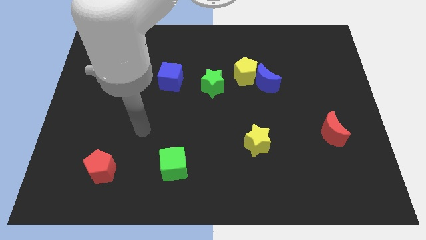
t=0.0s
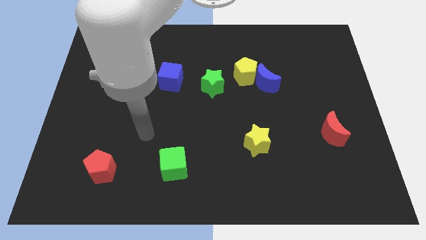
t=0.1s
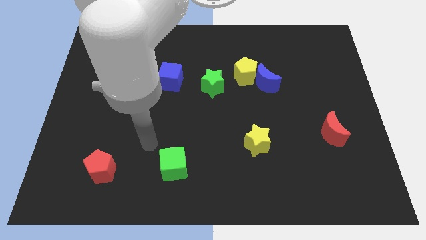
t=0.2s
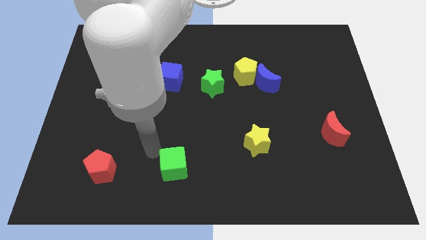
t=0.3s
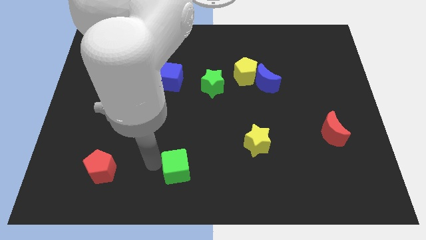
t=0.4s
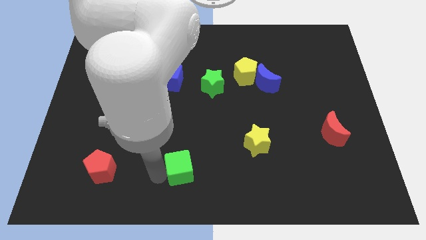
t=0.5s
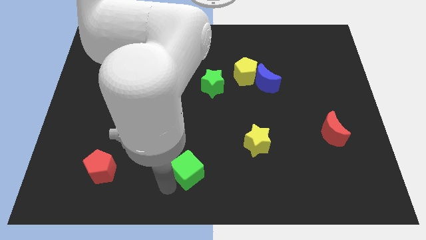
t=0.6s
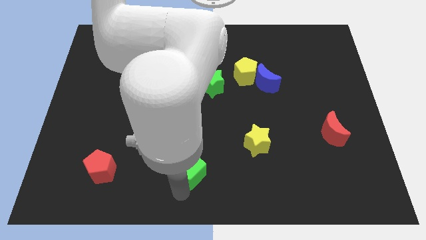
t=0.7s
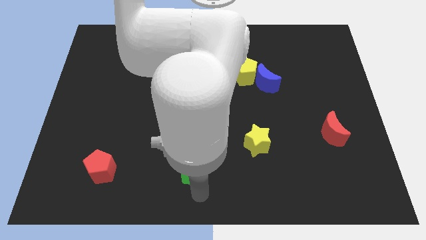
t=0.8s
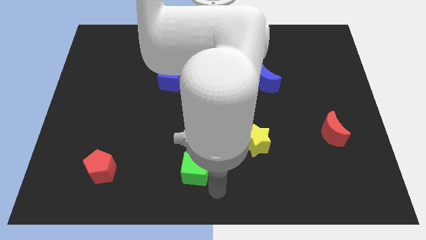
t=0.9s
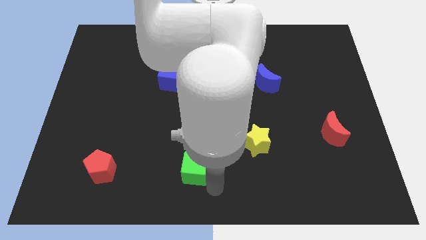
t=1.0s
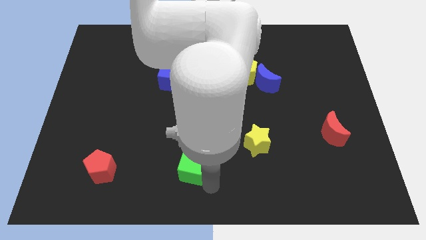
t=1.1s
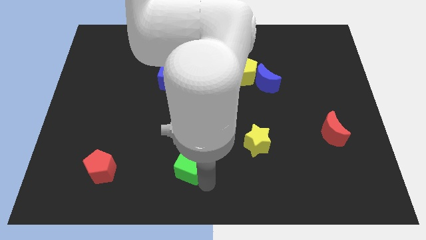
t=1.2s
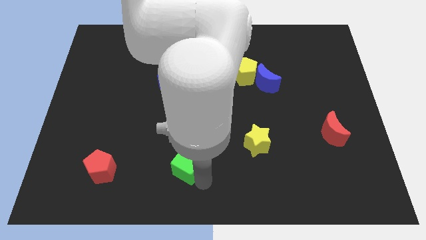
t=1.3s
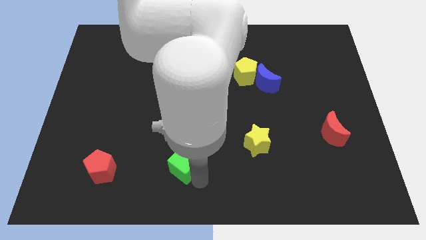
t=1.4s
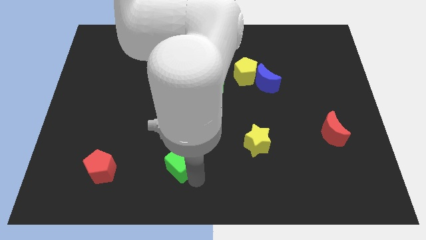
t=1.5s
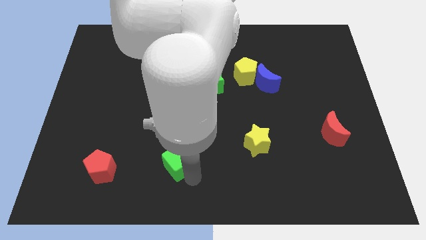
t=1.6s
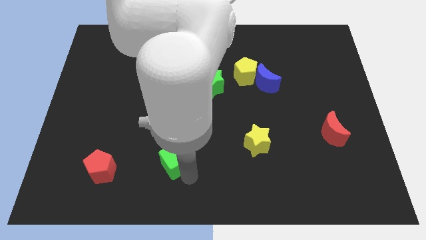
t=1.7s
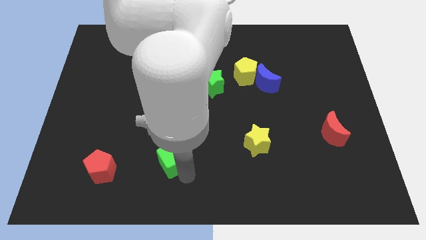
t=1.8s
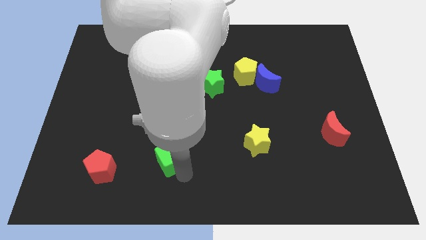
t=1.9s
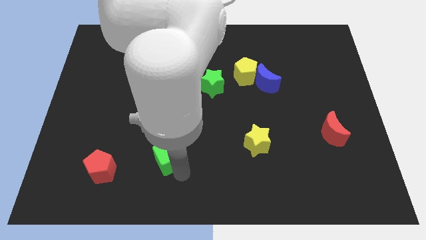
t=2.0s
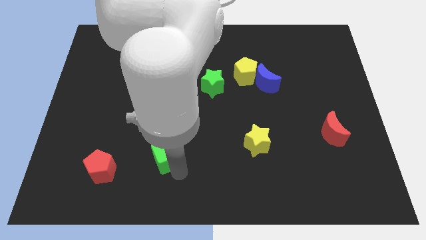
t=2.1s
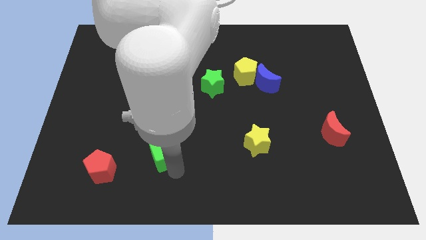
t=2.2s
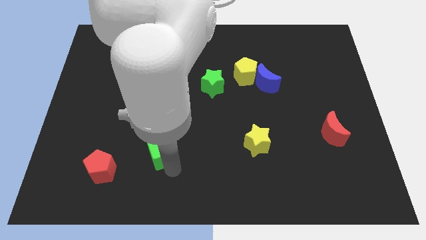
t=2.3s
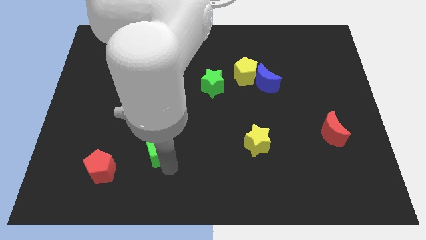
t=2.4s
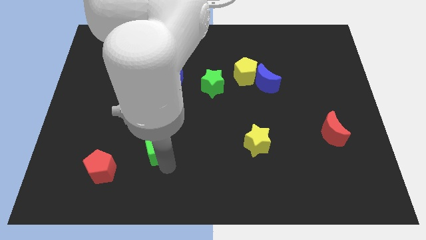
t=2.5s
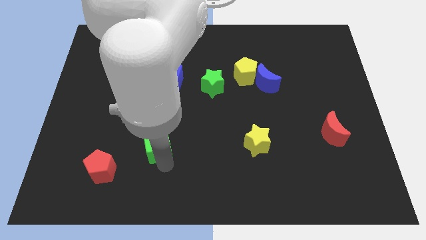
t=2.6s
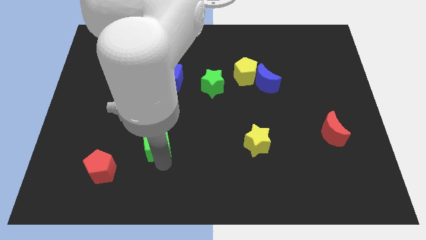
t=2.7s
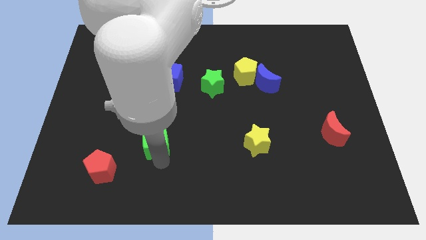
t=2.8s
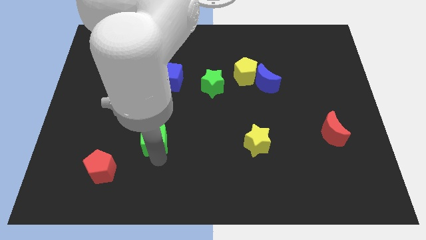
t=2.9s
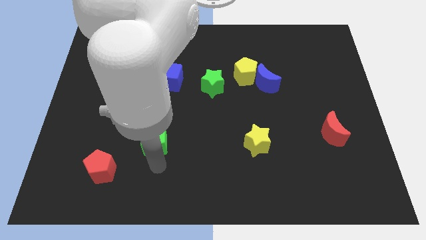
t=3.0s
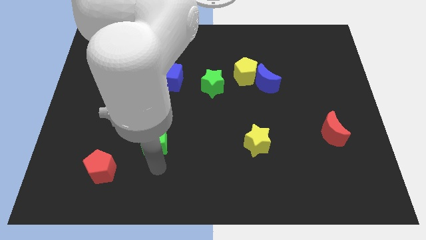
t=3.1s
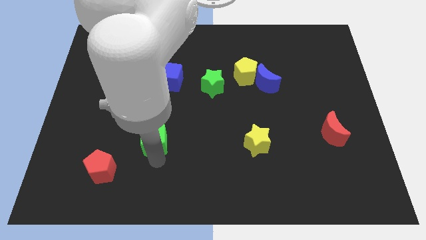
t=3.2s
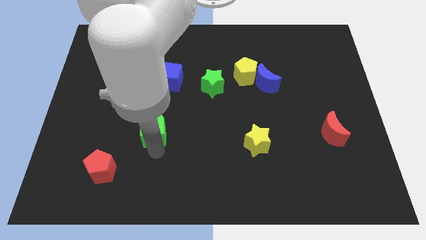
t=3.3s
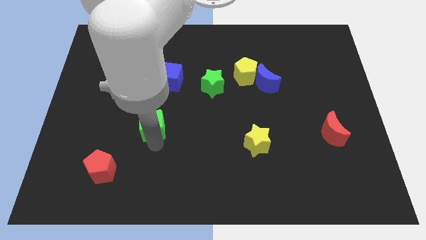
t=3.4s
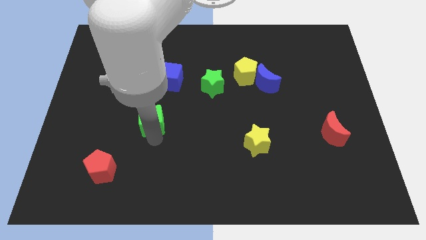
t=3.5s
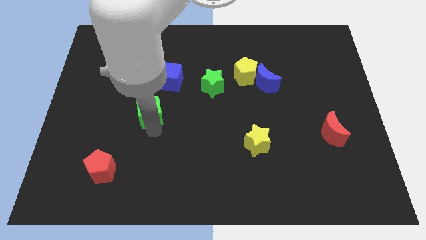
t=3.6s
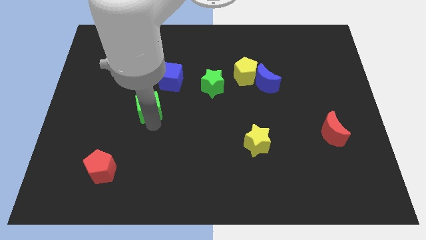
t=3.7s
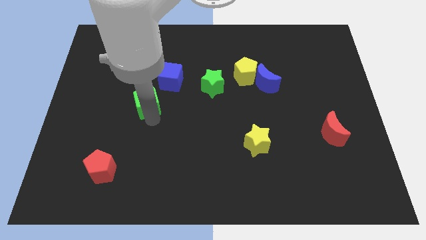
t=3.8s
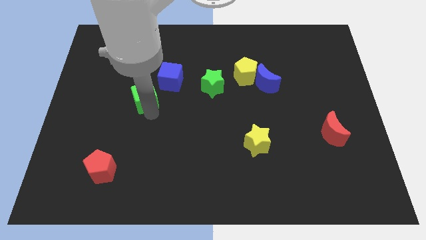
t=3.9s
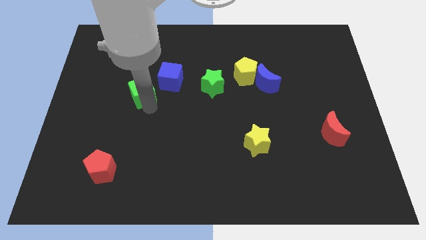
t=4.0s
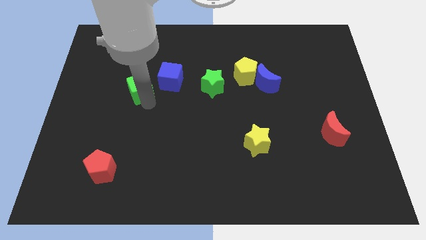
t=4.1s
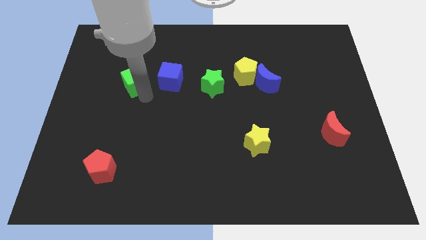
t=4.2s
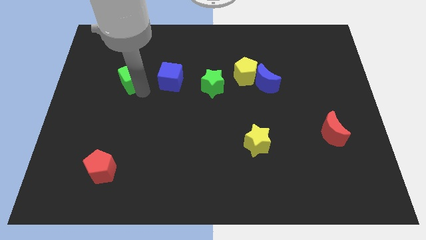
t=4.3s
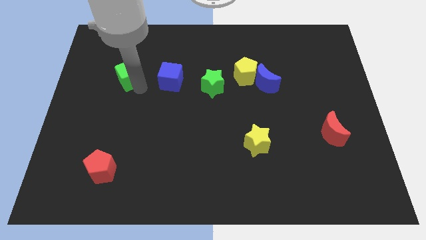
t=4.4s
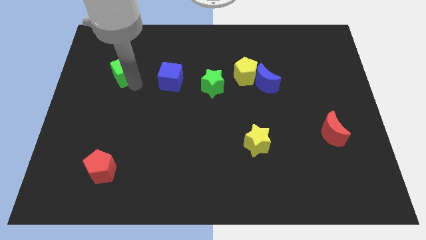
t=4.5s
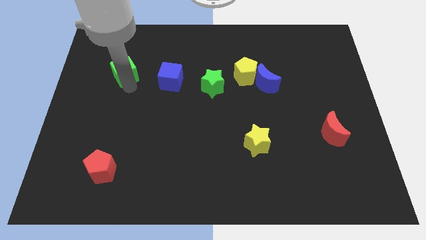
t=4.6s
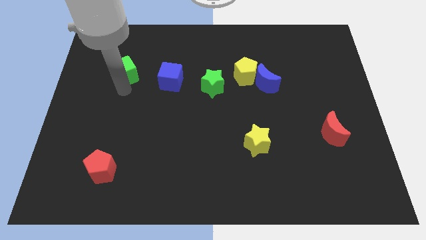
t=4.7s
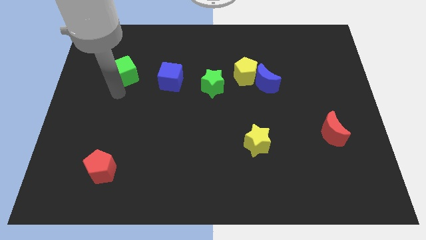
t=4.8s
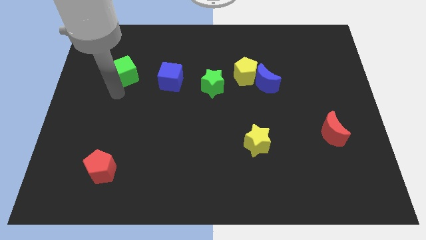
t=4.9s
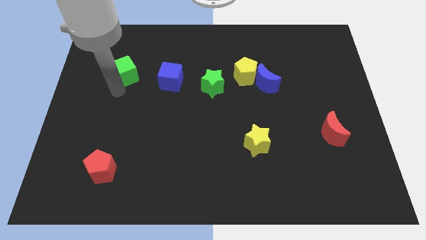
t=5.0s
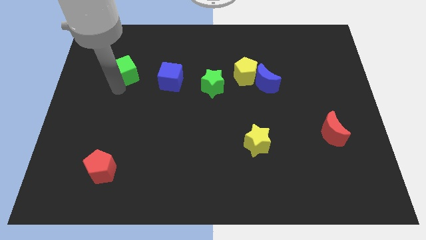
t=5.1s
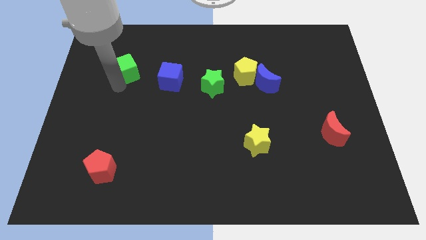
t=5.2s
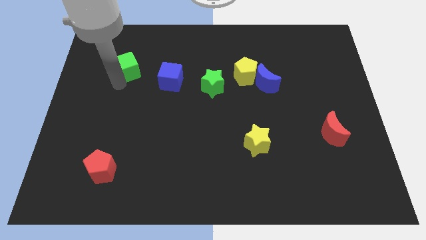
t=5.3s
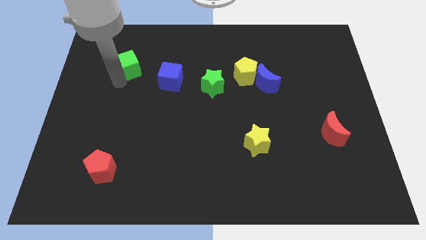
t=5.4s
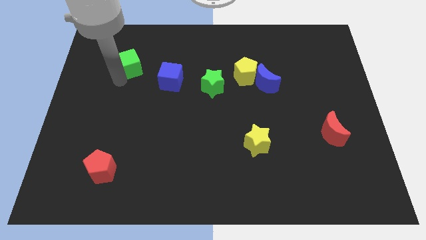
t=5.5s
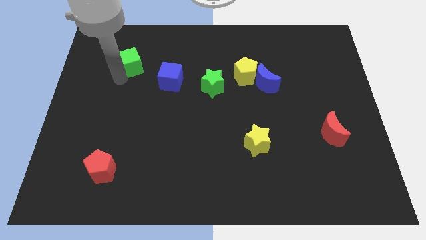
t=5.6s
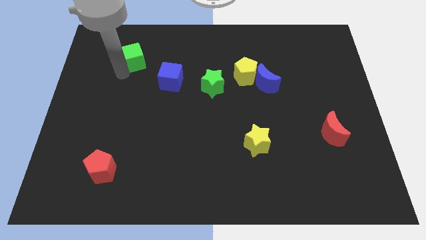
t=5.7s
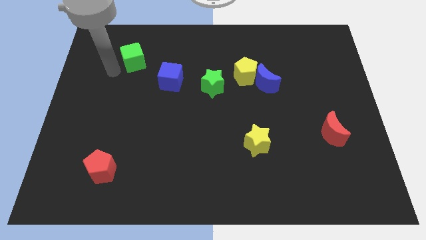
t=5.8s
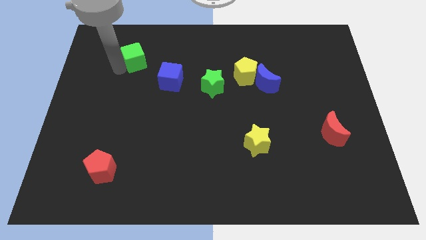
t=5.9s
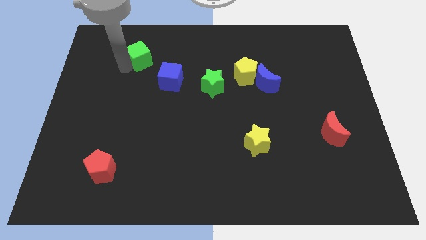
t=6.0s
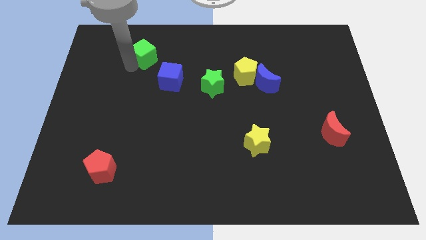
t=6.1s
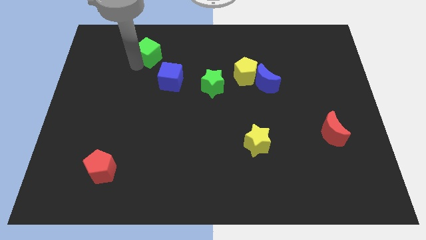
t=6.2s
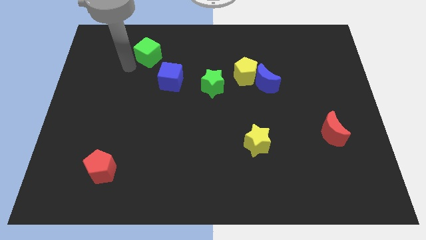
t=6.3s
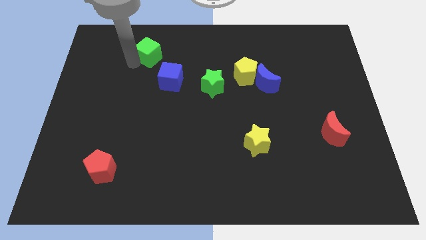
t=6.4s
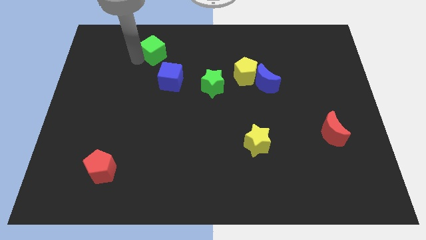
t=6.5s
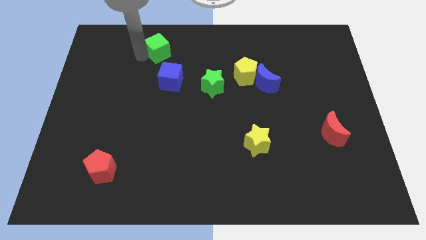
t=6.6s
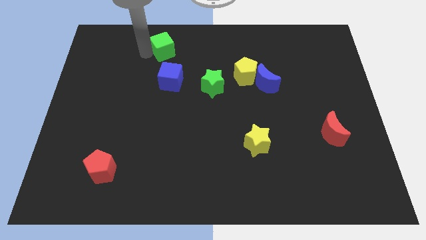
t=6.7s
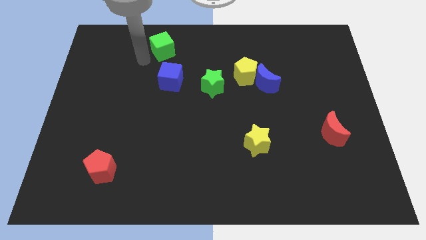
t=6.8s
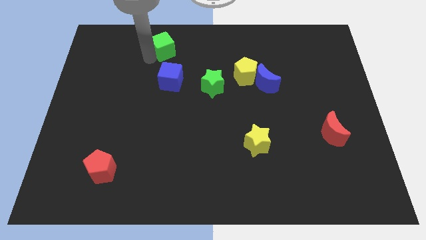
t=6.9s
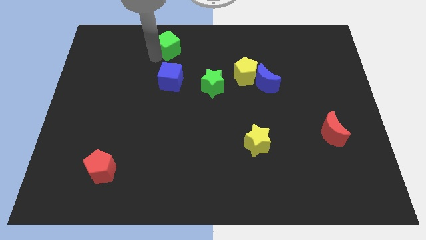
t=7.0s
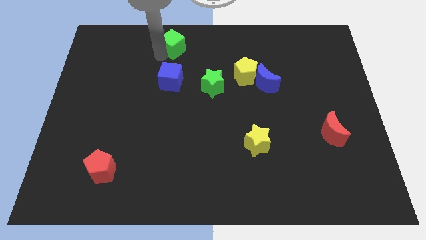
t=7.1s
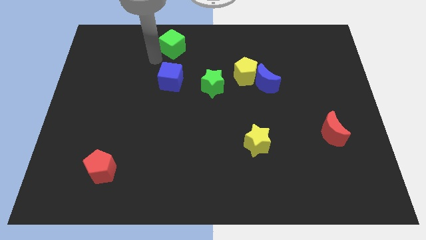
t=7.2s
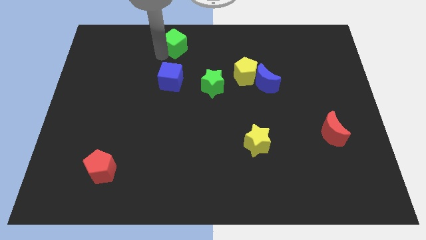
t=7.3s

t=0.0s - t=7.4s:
move the green cube to the top side
